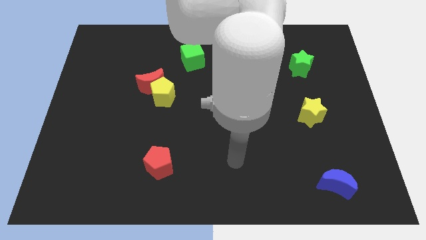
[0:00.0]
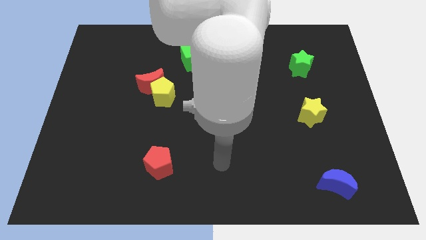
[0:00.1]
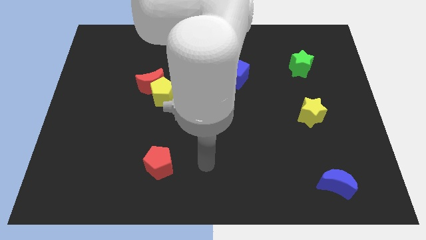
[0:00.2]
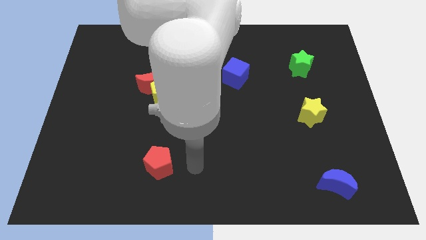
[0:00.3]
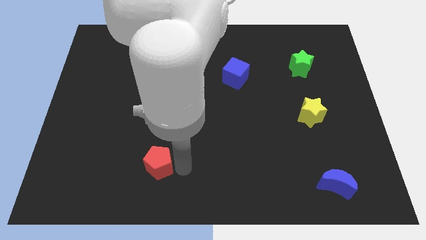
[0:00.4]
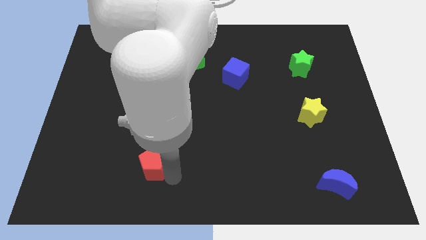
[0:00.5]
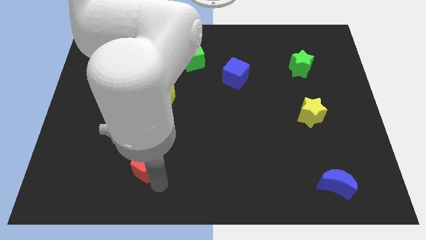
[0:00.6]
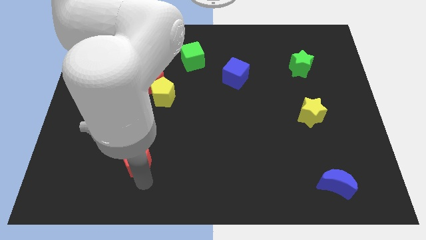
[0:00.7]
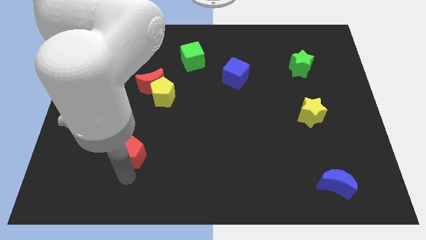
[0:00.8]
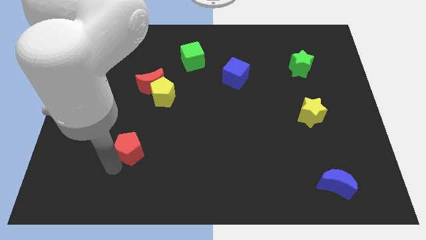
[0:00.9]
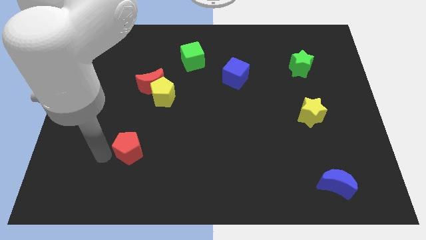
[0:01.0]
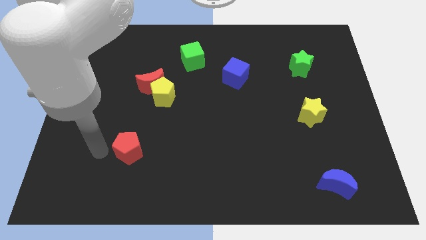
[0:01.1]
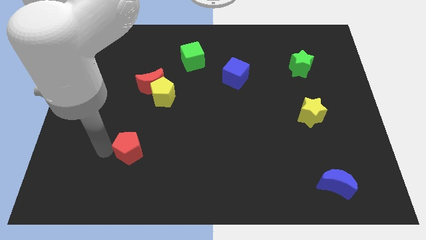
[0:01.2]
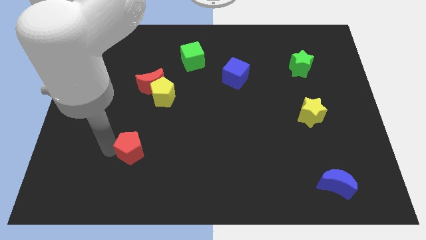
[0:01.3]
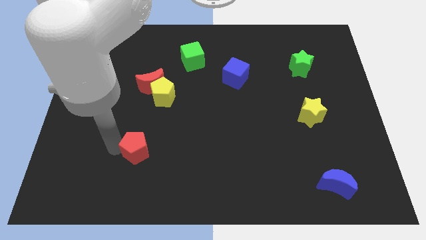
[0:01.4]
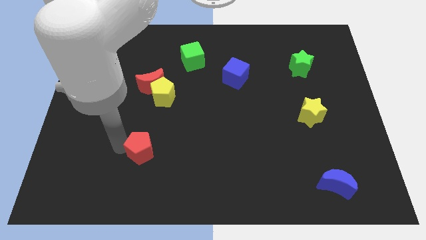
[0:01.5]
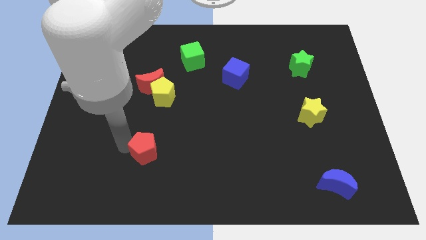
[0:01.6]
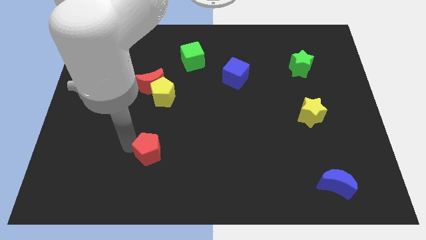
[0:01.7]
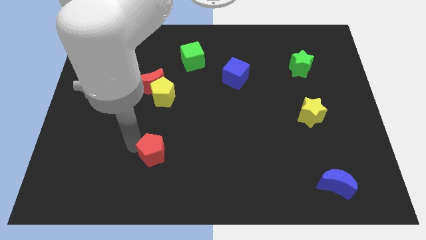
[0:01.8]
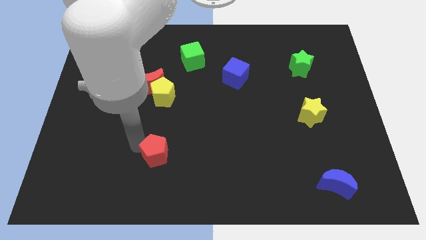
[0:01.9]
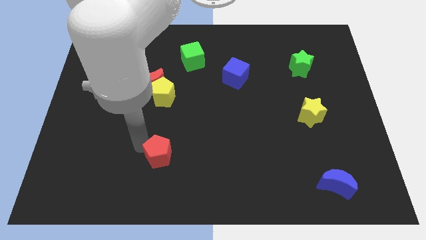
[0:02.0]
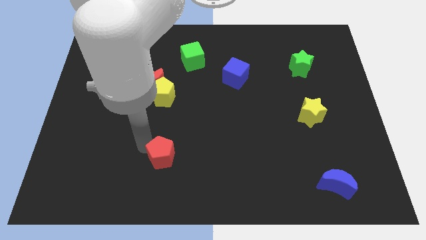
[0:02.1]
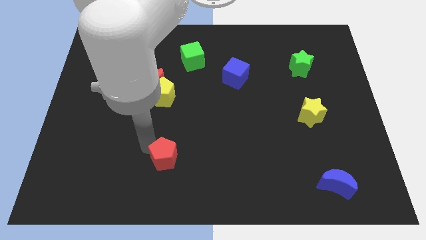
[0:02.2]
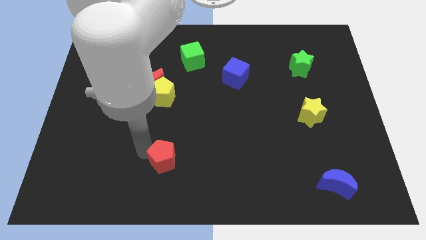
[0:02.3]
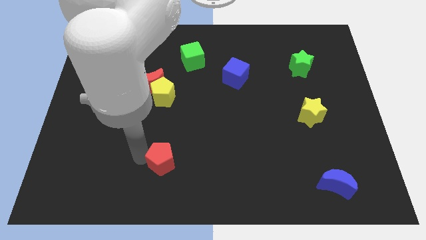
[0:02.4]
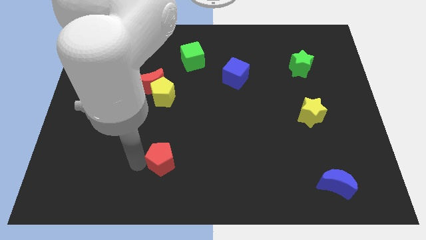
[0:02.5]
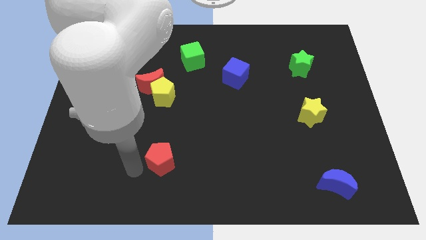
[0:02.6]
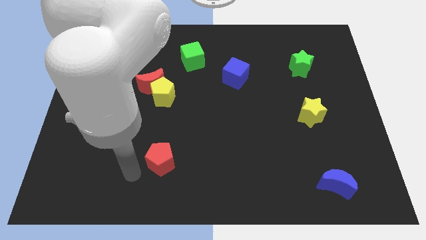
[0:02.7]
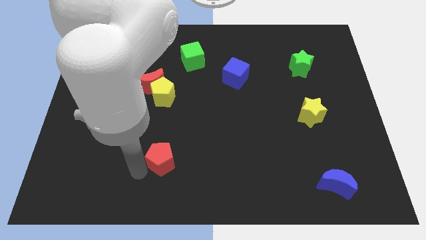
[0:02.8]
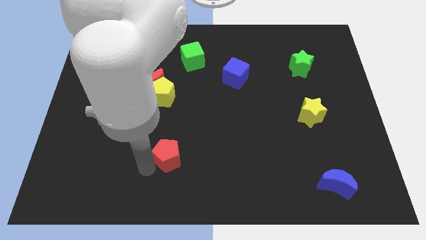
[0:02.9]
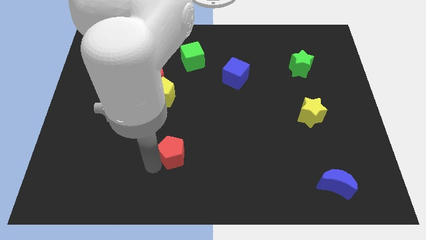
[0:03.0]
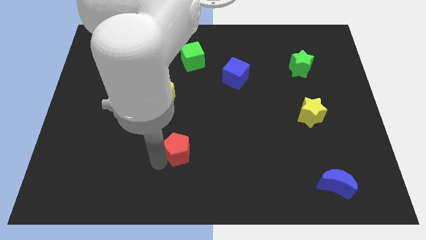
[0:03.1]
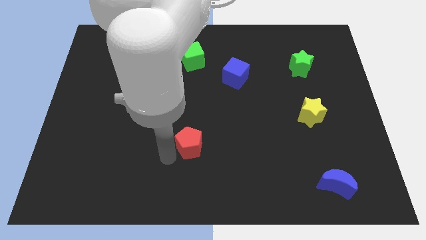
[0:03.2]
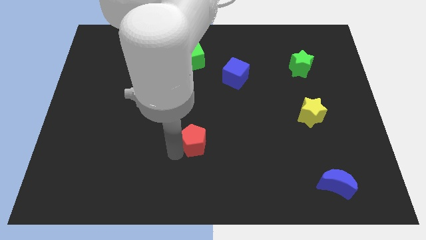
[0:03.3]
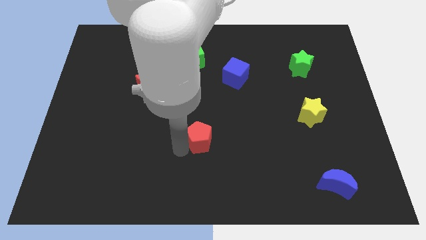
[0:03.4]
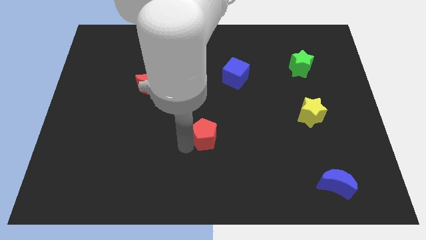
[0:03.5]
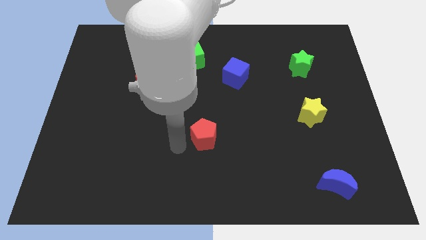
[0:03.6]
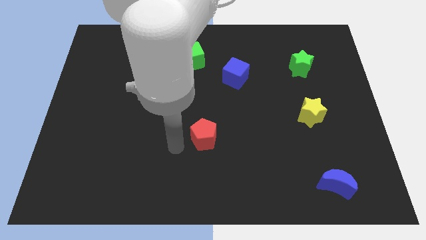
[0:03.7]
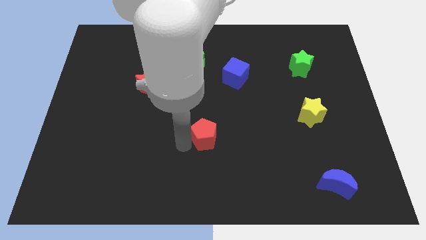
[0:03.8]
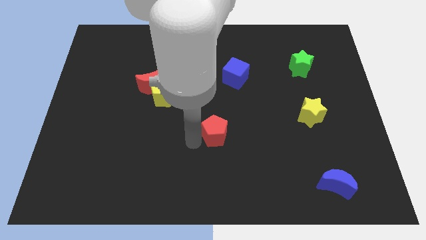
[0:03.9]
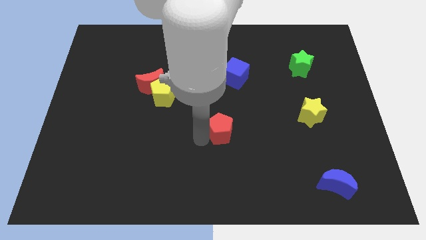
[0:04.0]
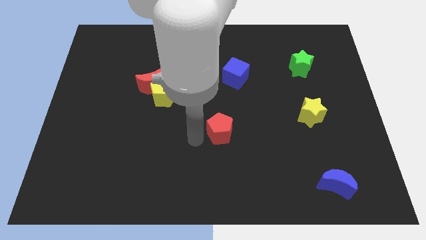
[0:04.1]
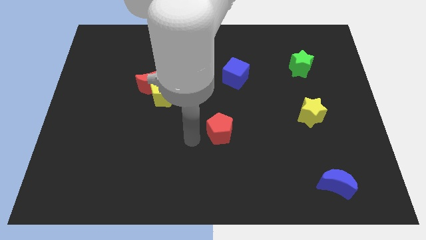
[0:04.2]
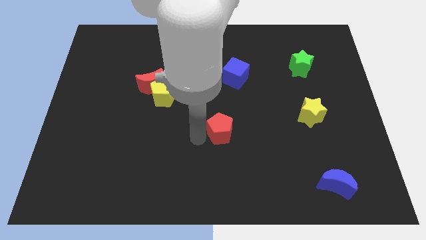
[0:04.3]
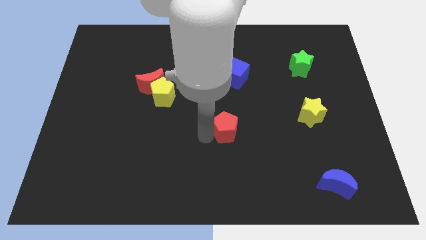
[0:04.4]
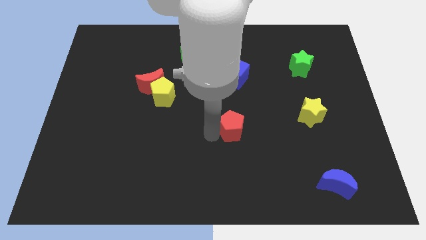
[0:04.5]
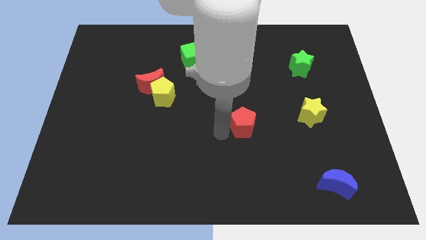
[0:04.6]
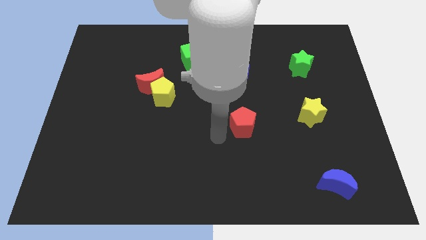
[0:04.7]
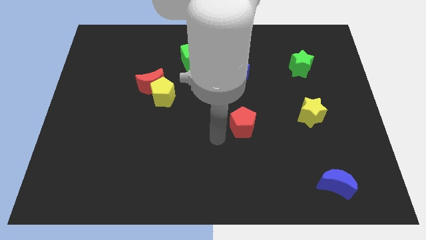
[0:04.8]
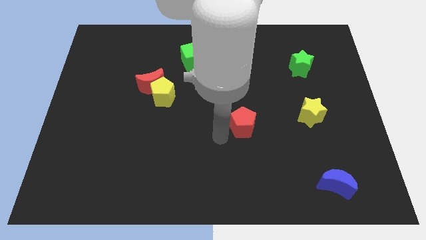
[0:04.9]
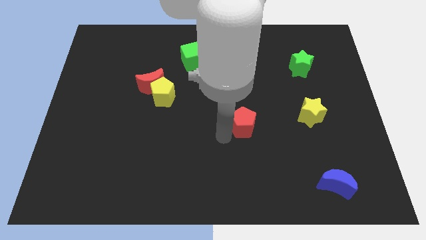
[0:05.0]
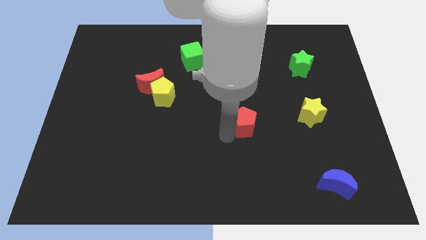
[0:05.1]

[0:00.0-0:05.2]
push the red pentagon just left of the yellow star

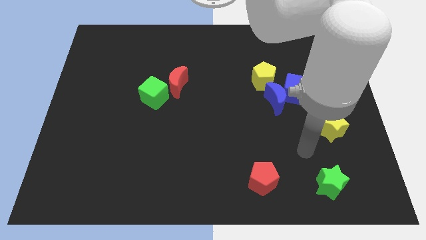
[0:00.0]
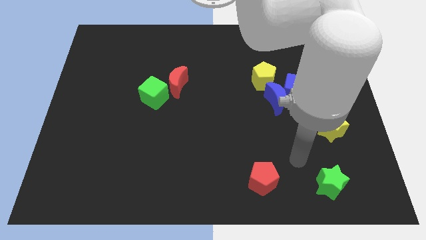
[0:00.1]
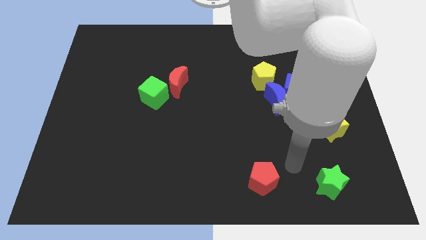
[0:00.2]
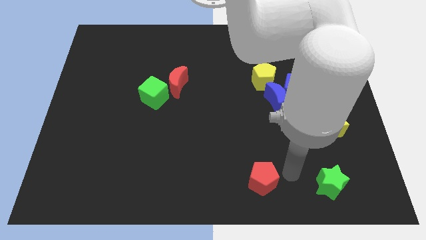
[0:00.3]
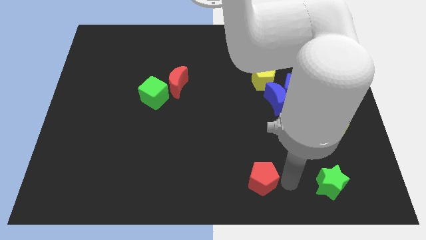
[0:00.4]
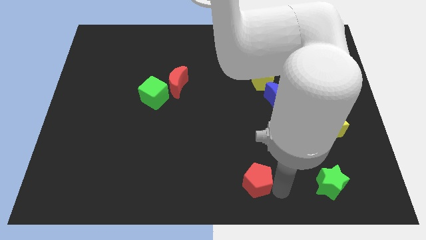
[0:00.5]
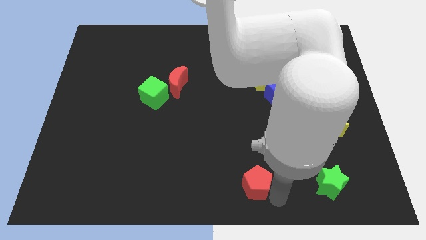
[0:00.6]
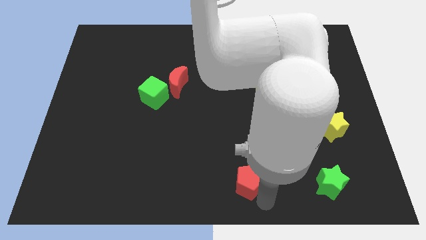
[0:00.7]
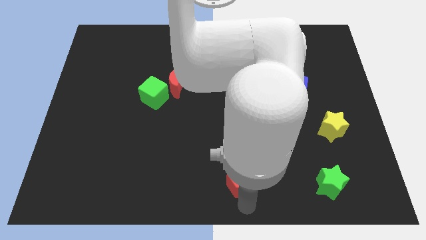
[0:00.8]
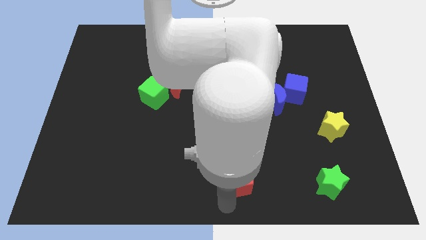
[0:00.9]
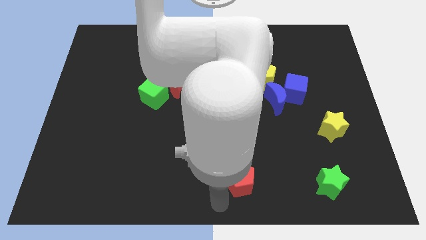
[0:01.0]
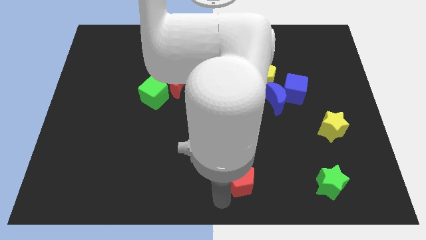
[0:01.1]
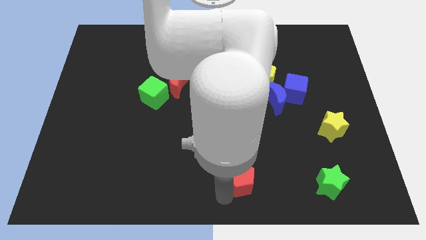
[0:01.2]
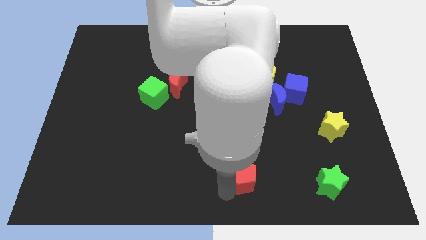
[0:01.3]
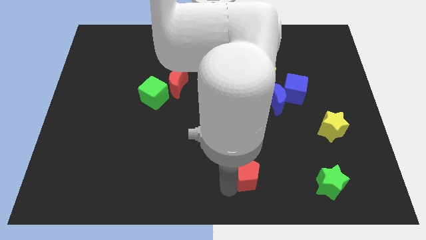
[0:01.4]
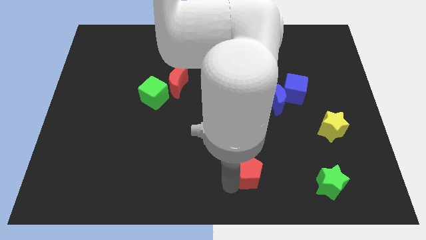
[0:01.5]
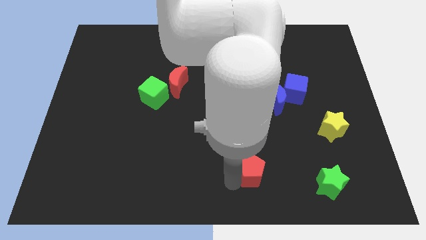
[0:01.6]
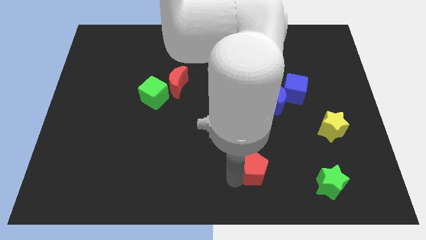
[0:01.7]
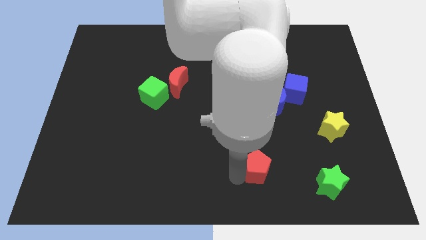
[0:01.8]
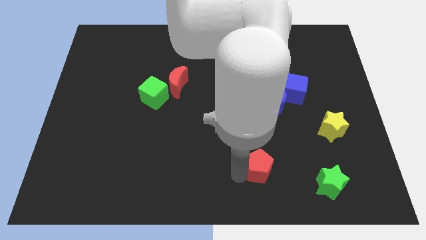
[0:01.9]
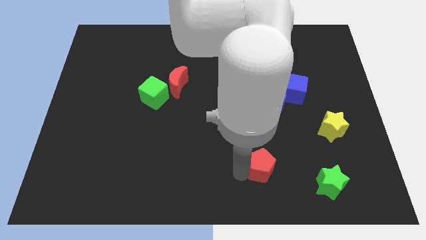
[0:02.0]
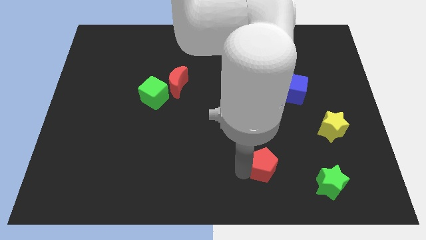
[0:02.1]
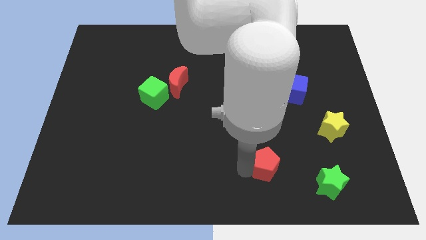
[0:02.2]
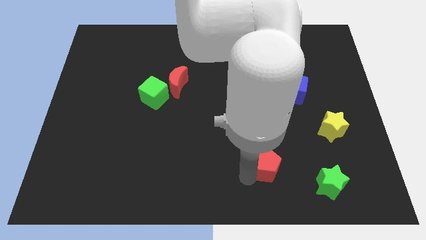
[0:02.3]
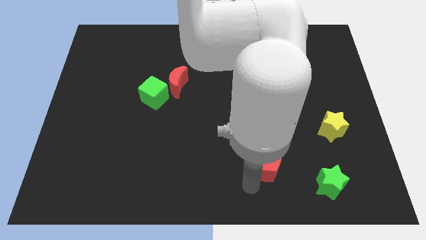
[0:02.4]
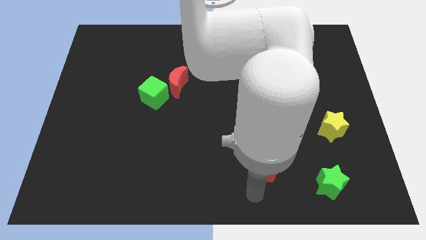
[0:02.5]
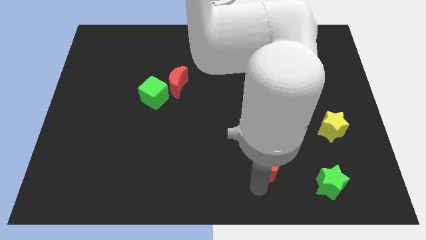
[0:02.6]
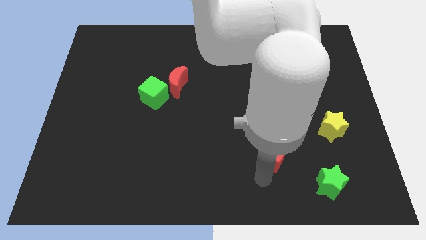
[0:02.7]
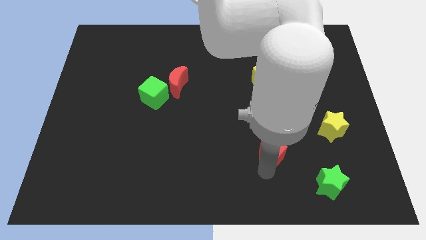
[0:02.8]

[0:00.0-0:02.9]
slide the red pentagon below the blue moon
